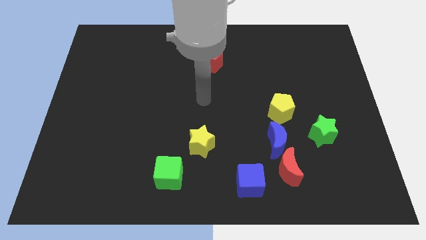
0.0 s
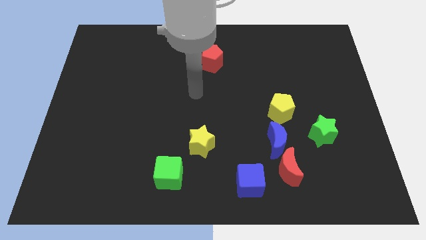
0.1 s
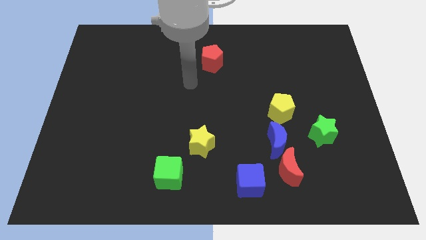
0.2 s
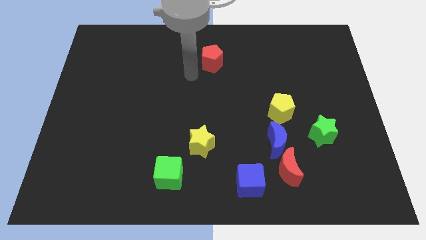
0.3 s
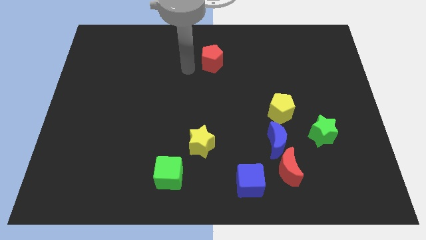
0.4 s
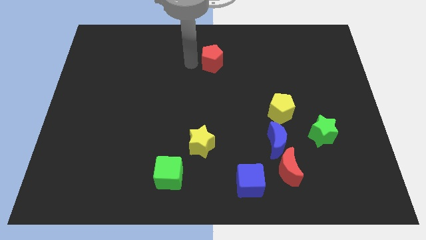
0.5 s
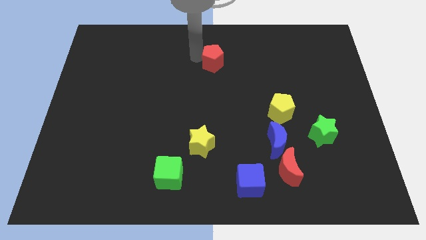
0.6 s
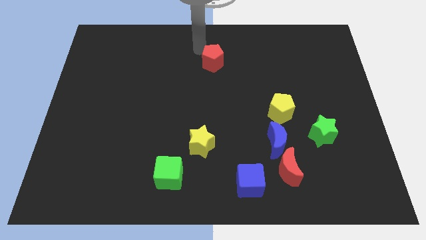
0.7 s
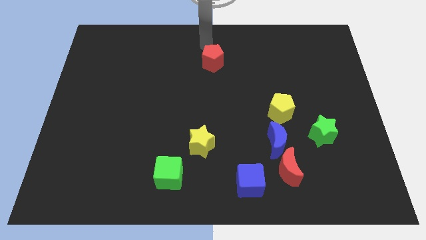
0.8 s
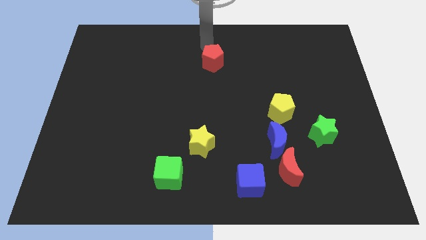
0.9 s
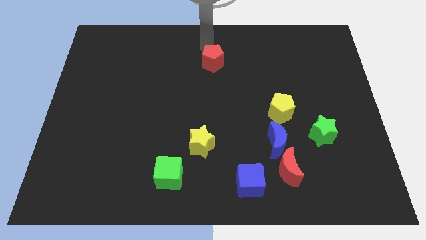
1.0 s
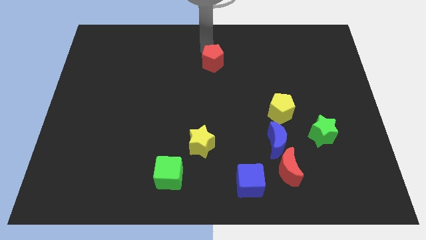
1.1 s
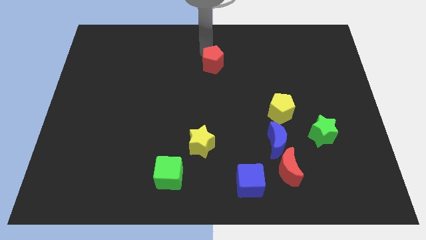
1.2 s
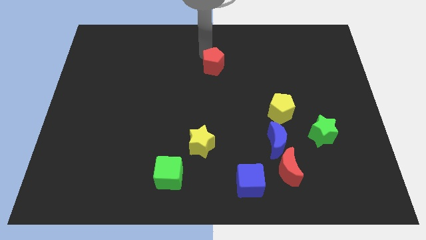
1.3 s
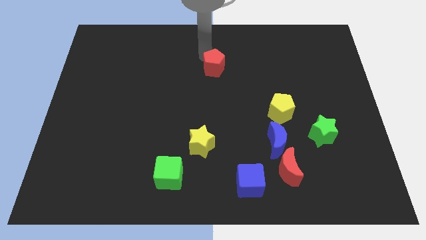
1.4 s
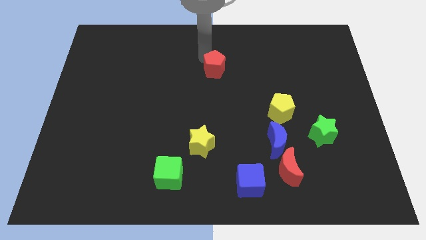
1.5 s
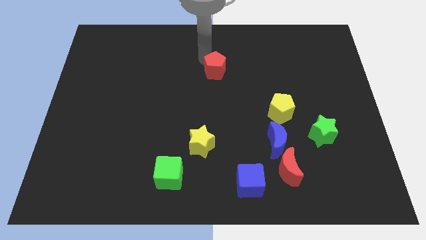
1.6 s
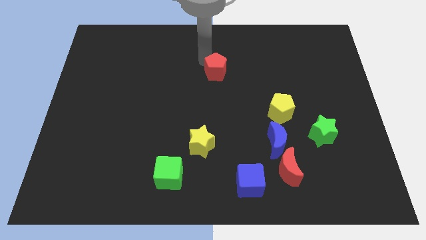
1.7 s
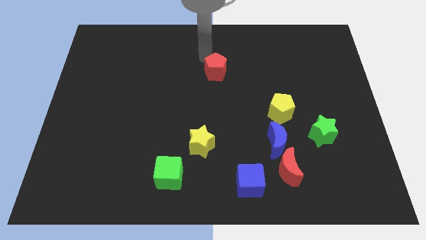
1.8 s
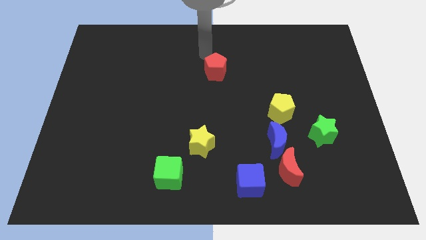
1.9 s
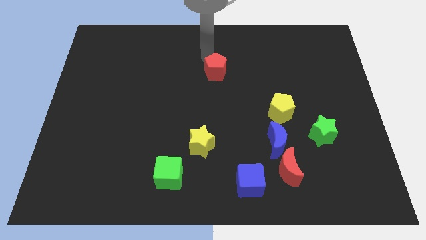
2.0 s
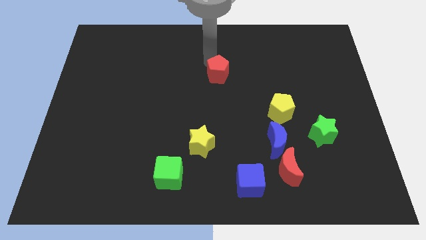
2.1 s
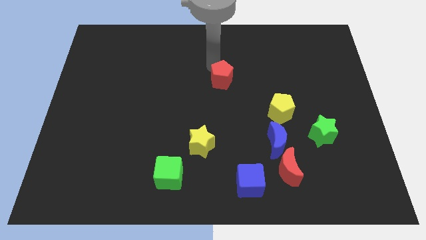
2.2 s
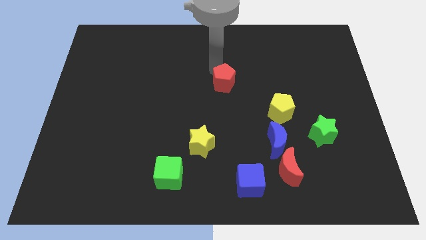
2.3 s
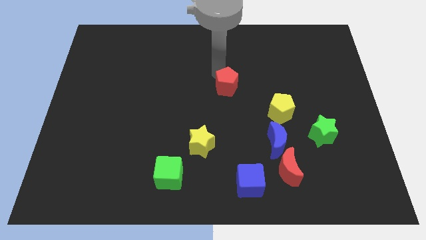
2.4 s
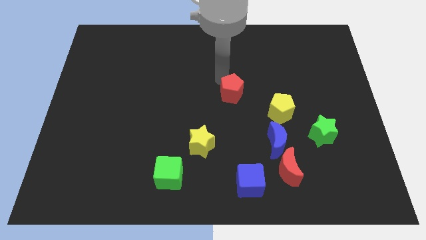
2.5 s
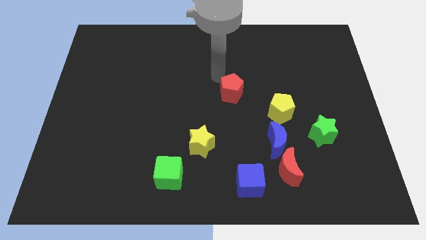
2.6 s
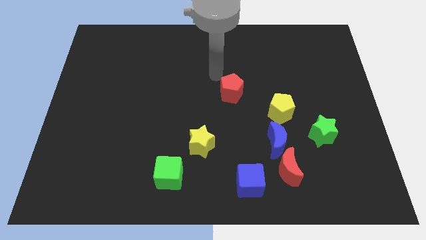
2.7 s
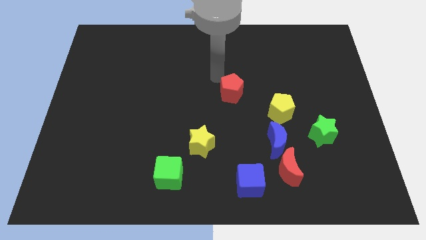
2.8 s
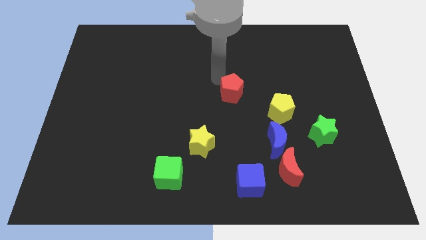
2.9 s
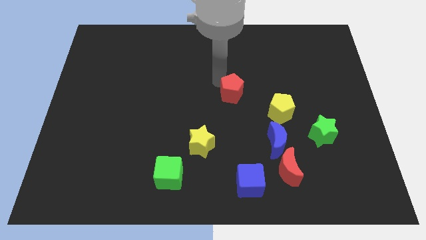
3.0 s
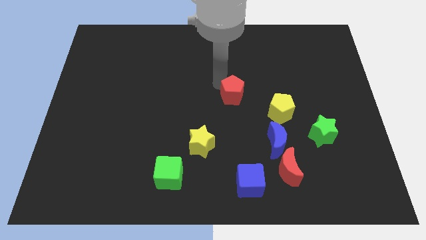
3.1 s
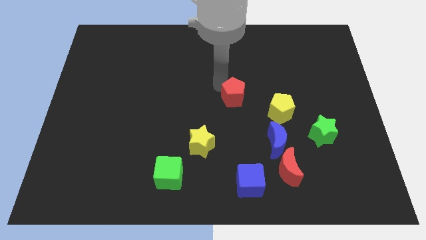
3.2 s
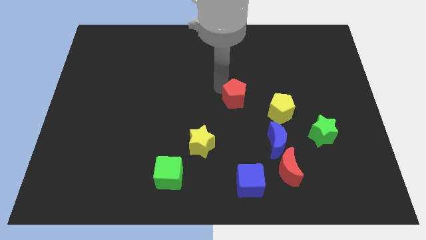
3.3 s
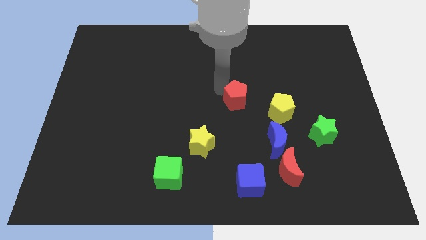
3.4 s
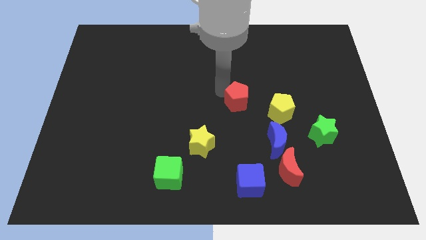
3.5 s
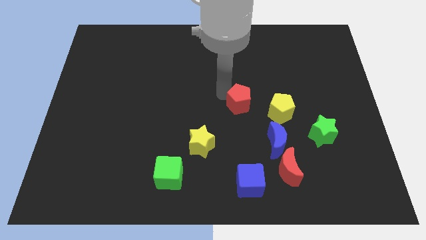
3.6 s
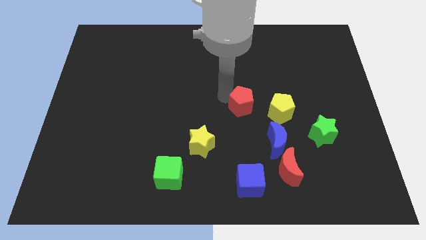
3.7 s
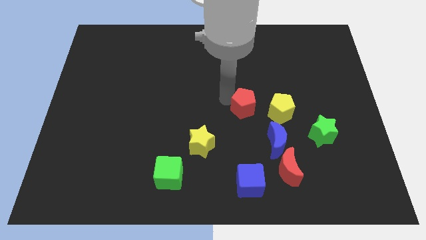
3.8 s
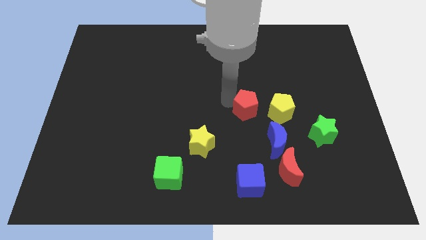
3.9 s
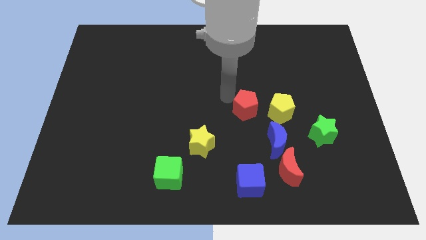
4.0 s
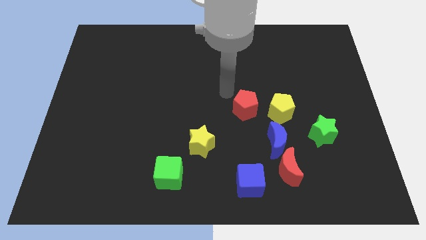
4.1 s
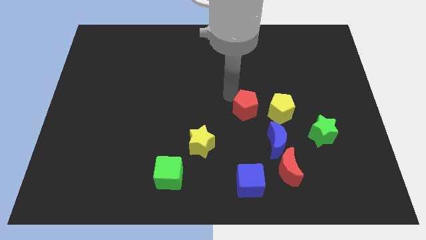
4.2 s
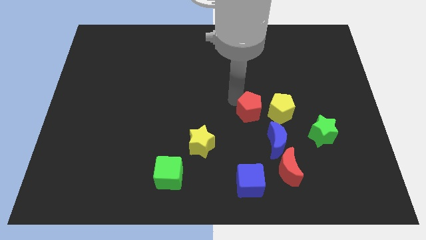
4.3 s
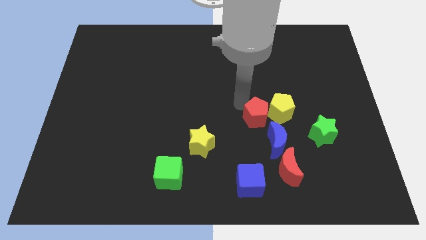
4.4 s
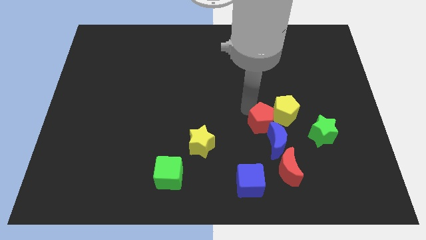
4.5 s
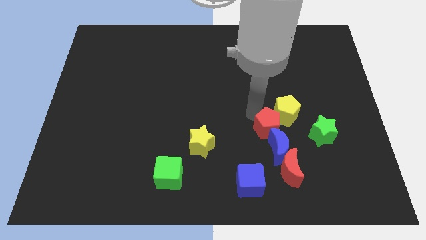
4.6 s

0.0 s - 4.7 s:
slide the red pentagon to the blue moon

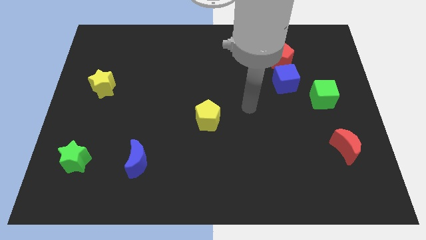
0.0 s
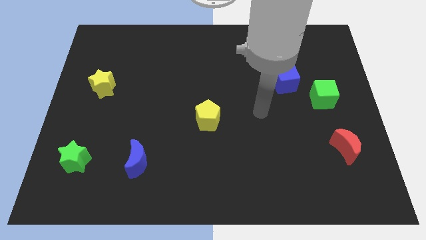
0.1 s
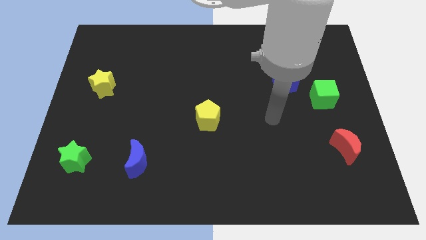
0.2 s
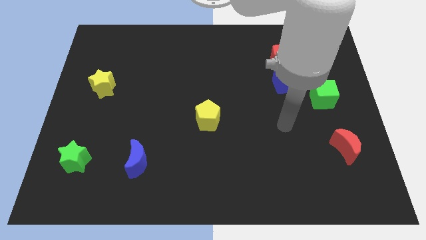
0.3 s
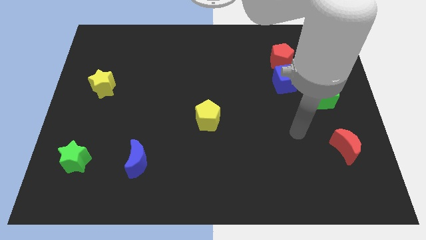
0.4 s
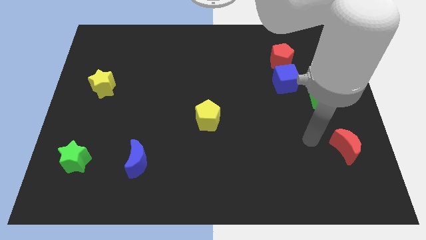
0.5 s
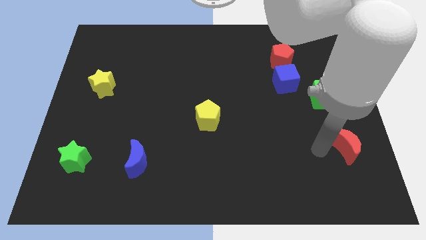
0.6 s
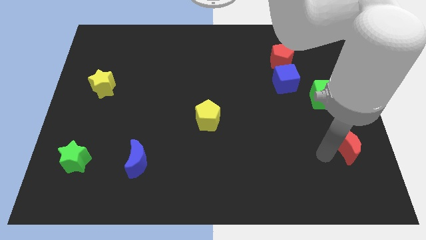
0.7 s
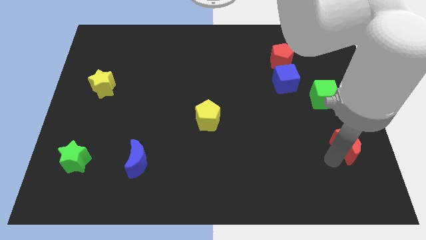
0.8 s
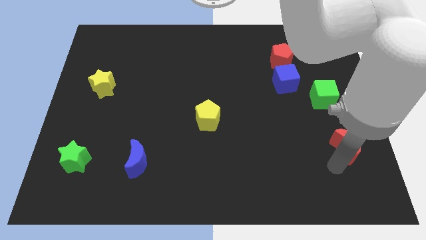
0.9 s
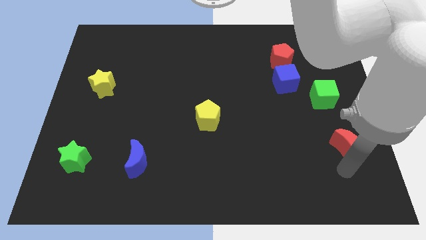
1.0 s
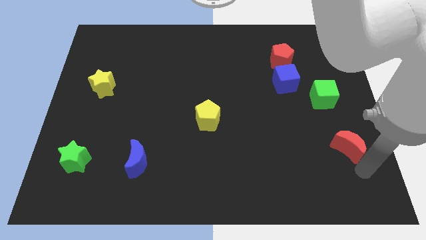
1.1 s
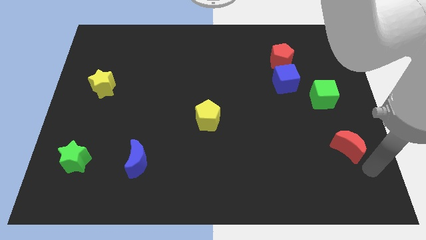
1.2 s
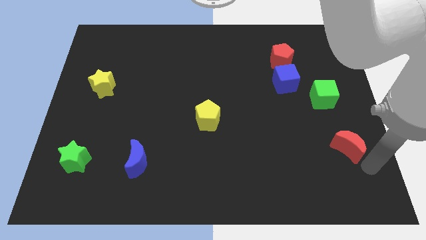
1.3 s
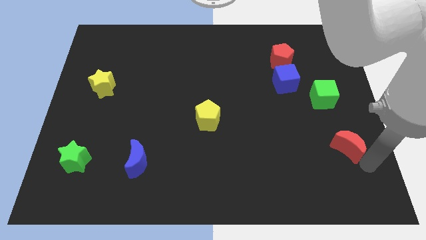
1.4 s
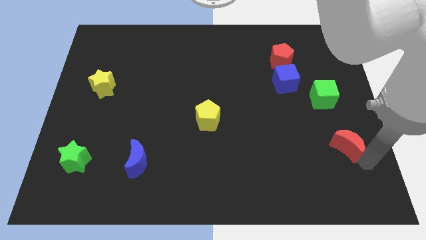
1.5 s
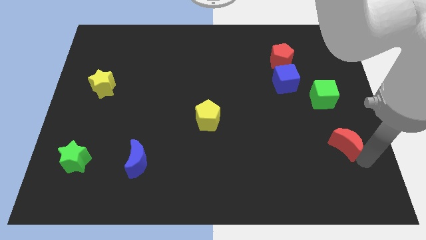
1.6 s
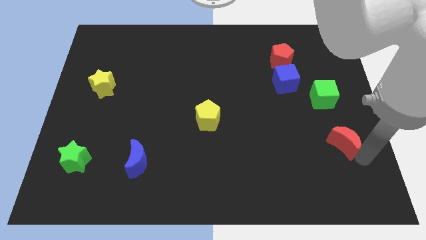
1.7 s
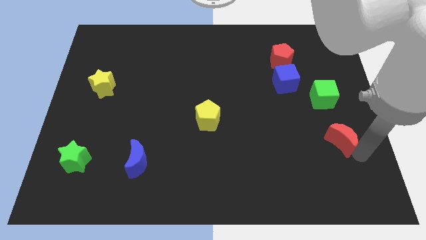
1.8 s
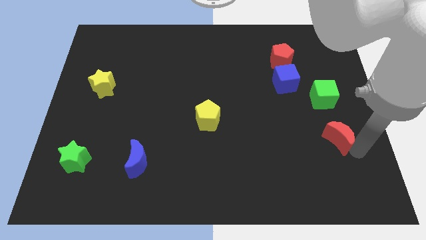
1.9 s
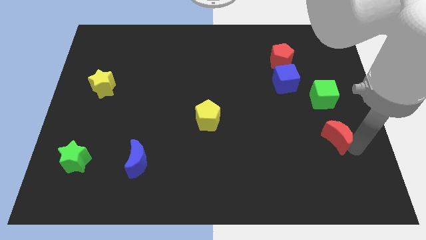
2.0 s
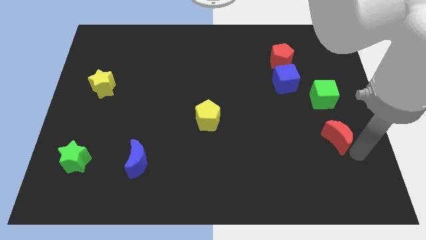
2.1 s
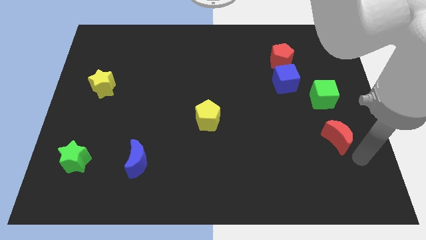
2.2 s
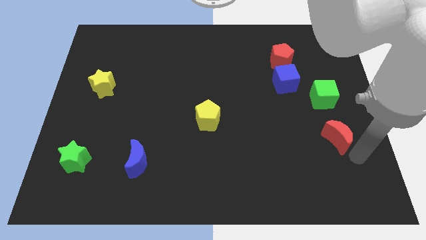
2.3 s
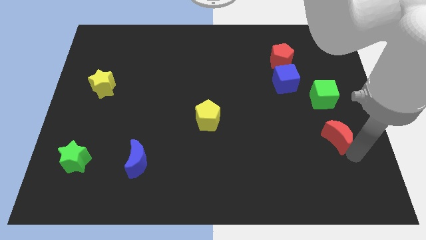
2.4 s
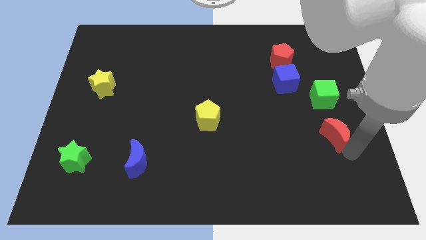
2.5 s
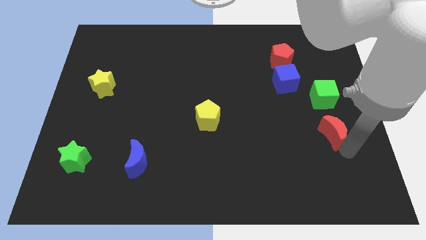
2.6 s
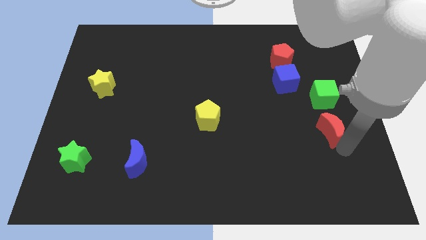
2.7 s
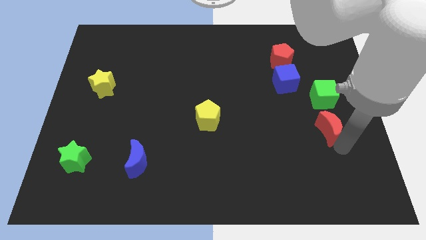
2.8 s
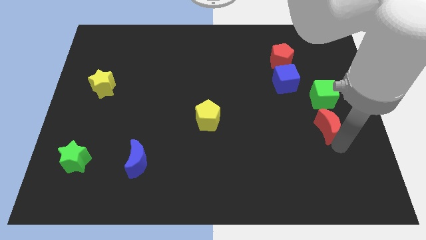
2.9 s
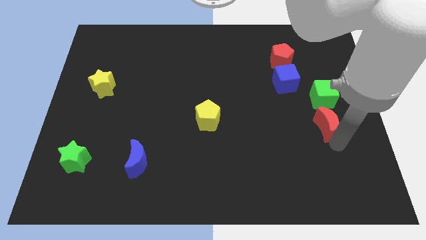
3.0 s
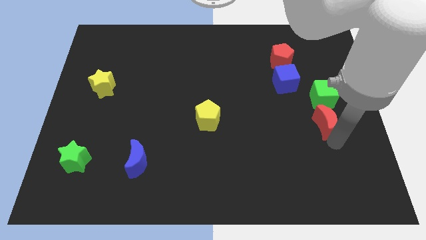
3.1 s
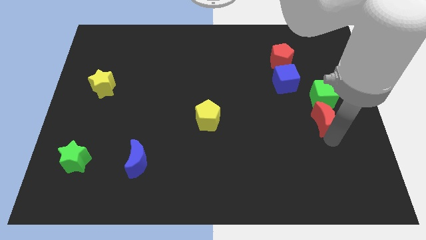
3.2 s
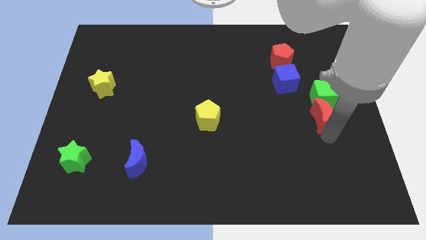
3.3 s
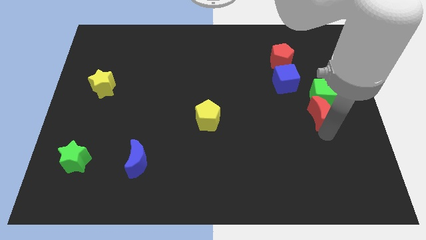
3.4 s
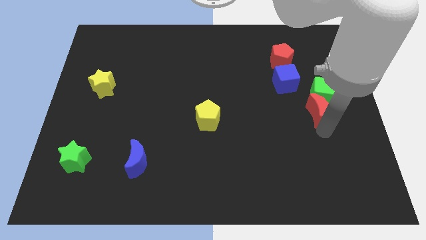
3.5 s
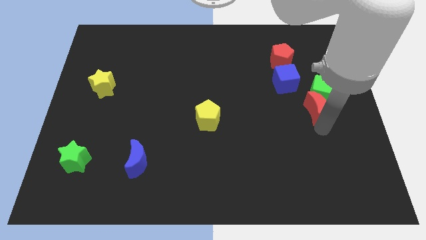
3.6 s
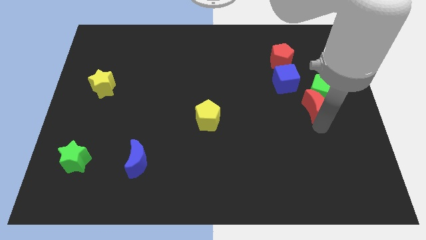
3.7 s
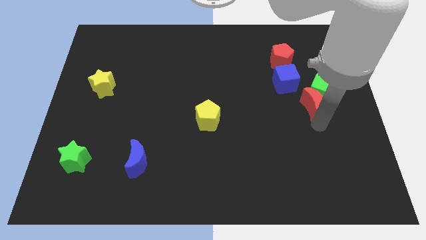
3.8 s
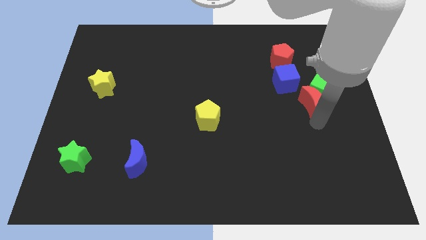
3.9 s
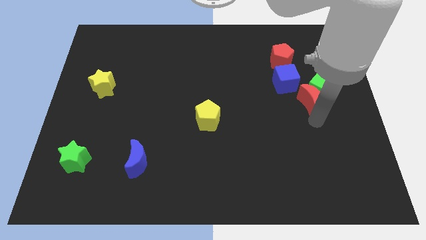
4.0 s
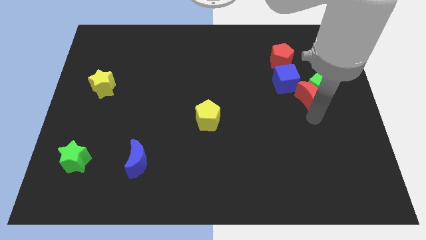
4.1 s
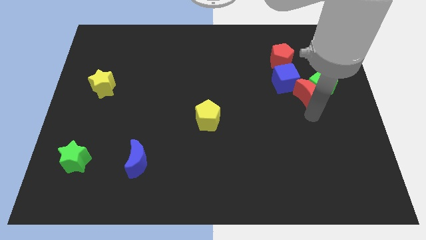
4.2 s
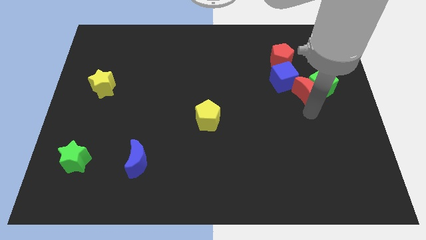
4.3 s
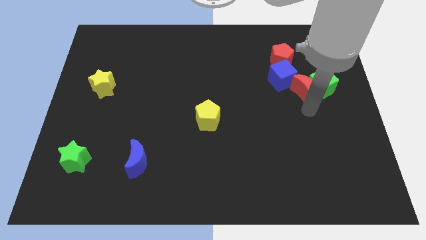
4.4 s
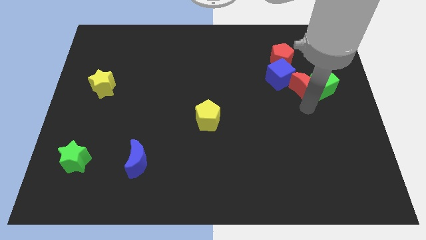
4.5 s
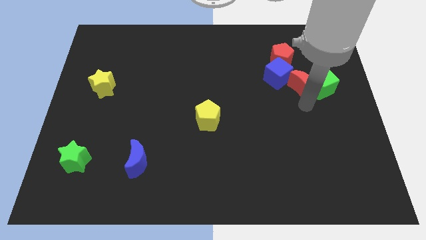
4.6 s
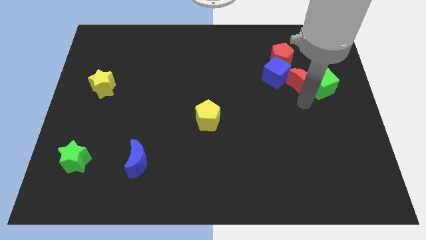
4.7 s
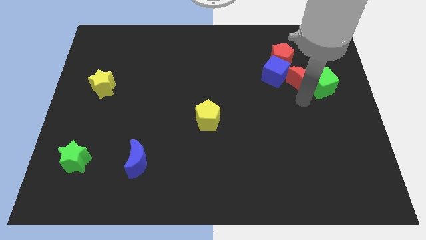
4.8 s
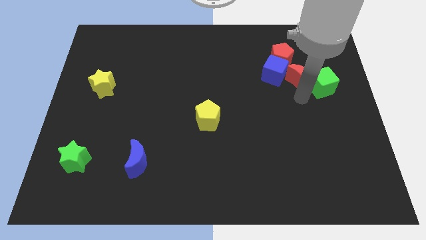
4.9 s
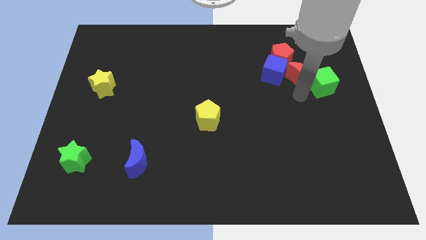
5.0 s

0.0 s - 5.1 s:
move the red moon towards the blue cube
